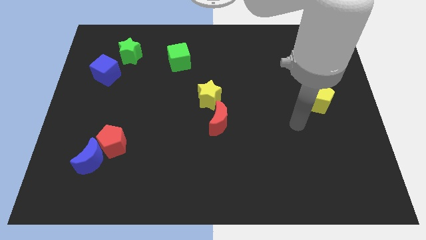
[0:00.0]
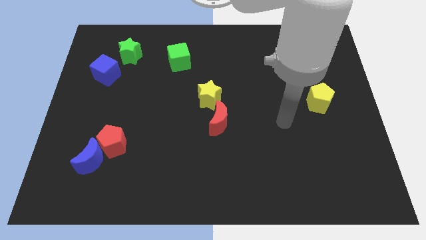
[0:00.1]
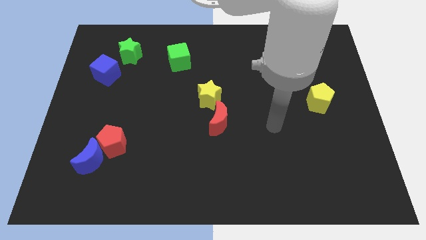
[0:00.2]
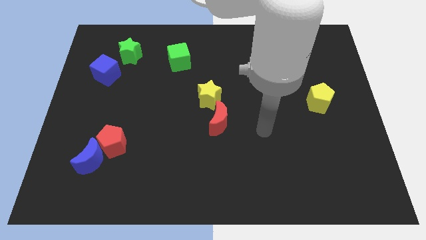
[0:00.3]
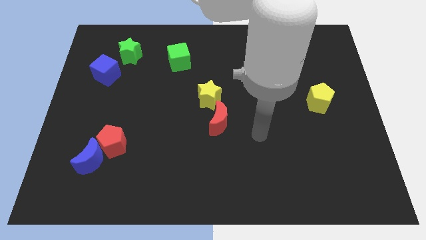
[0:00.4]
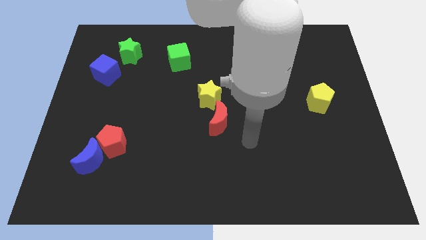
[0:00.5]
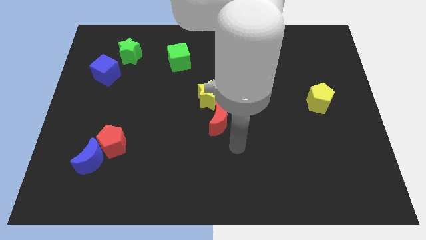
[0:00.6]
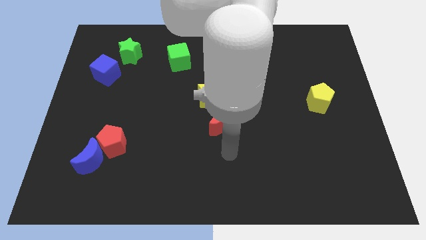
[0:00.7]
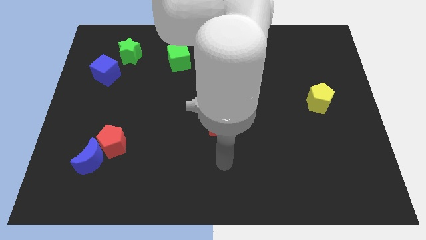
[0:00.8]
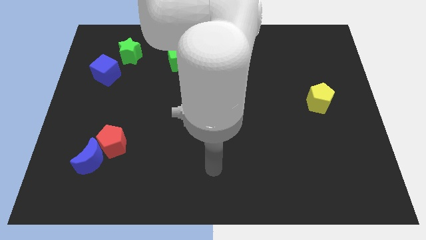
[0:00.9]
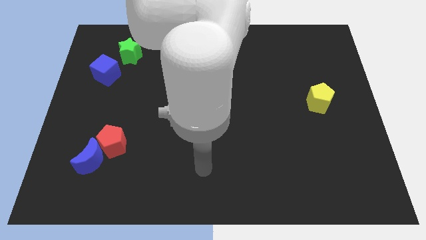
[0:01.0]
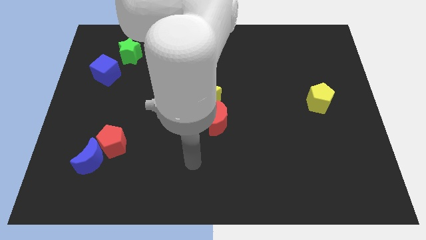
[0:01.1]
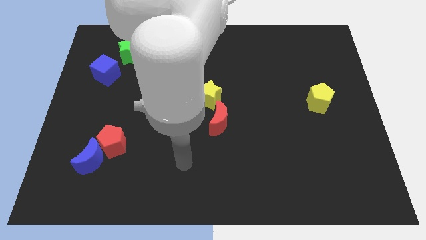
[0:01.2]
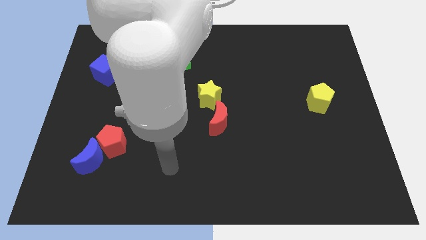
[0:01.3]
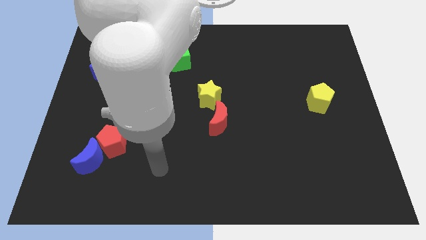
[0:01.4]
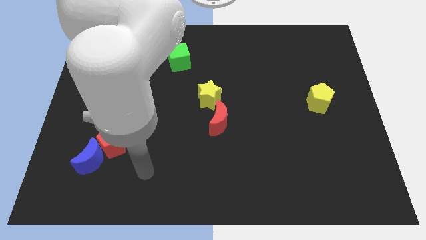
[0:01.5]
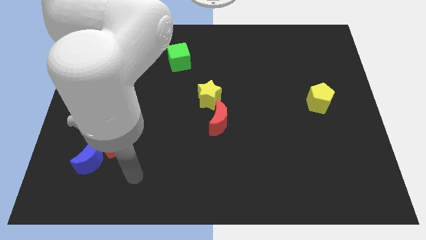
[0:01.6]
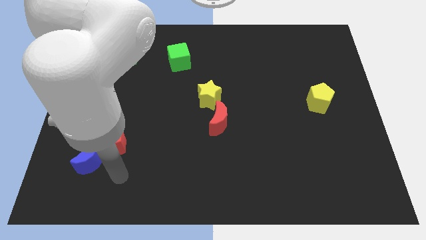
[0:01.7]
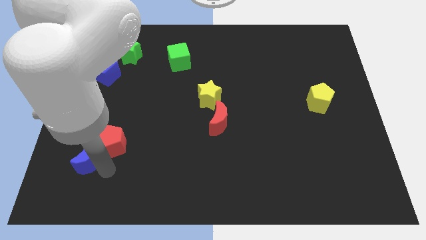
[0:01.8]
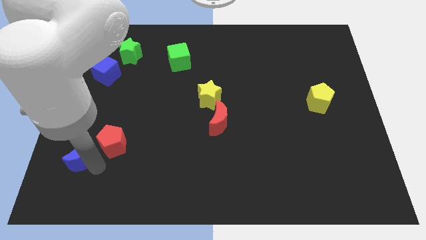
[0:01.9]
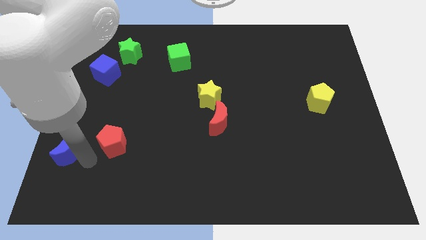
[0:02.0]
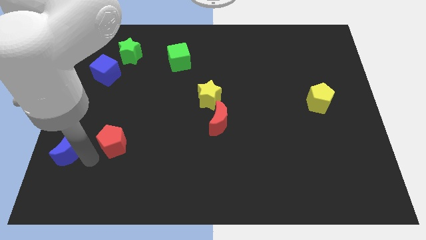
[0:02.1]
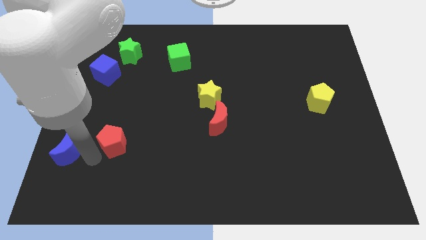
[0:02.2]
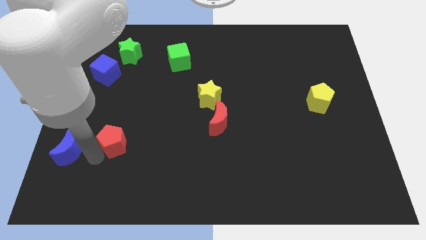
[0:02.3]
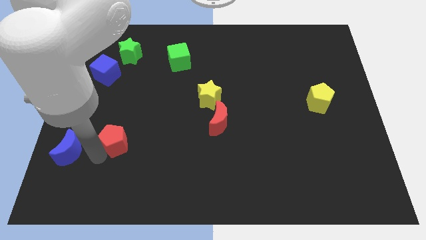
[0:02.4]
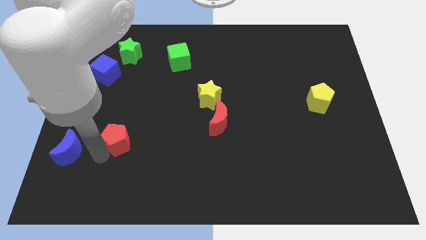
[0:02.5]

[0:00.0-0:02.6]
separate the red pentagon from the blue moon

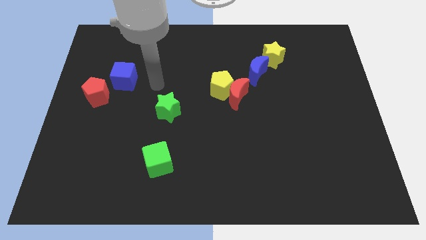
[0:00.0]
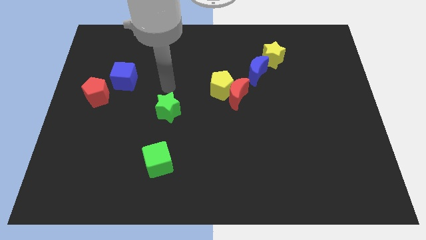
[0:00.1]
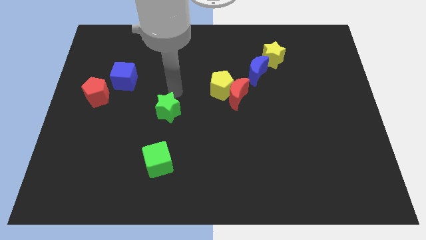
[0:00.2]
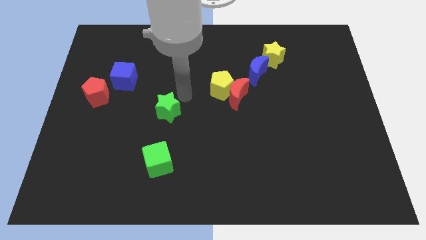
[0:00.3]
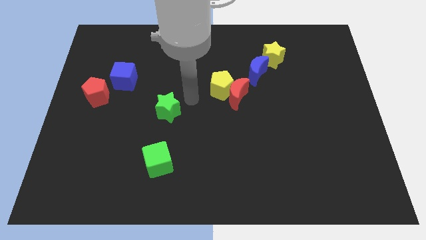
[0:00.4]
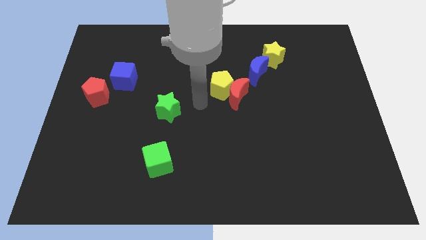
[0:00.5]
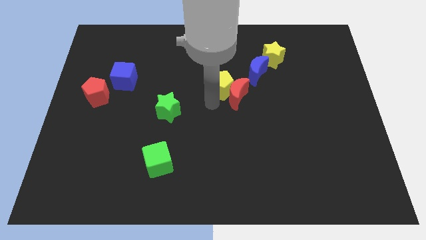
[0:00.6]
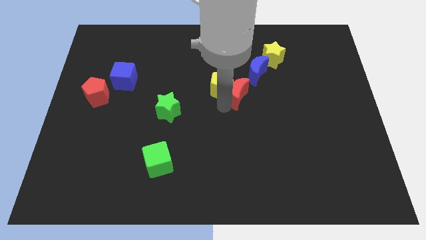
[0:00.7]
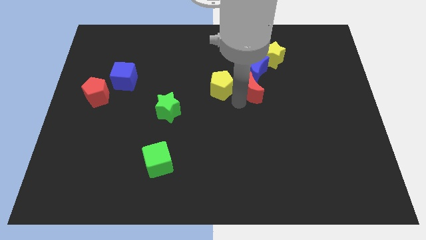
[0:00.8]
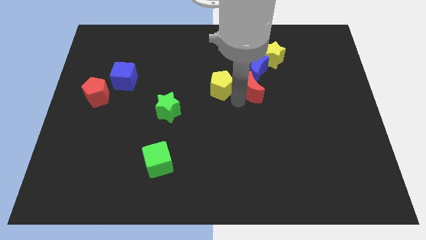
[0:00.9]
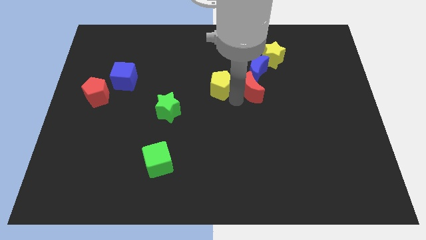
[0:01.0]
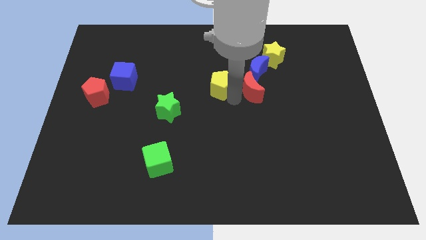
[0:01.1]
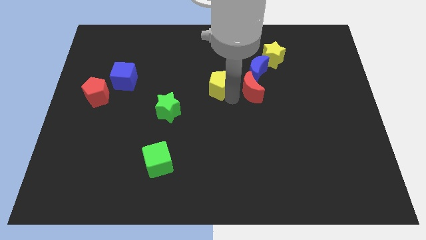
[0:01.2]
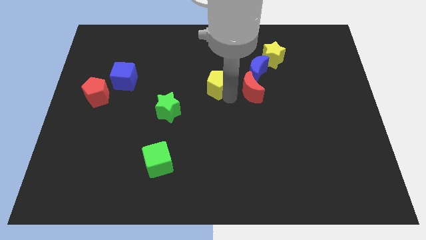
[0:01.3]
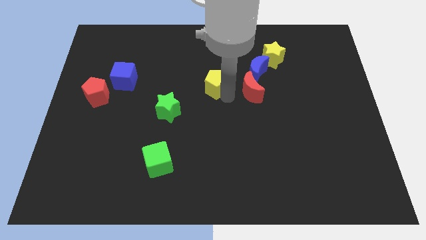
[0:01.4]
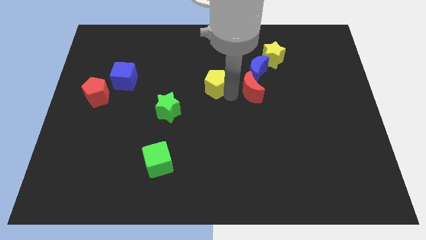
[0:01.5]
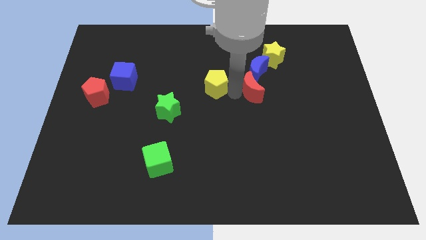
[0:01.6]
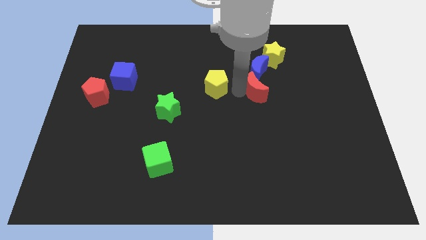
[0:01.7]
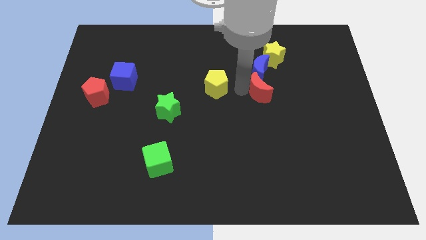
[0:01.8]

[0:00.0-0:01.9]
separate the yellow pentagon from the red moon

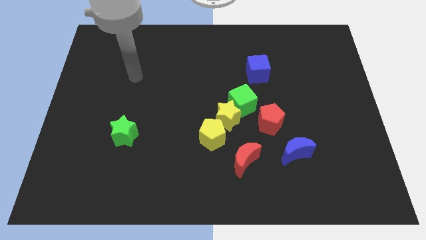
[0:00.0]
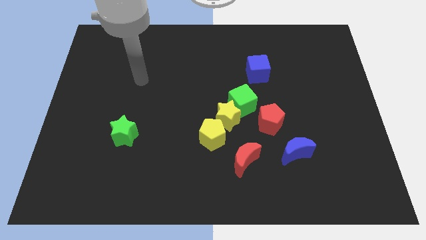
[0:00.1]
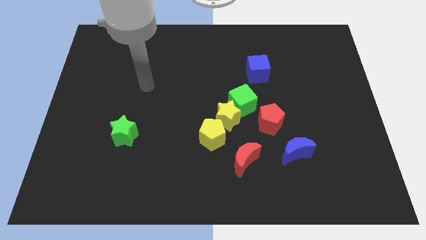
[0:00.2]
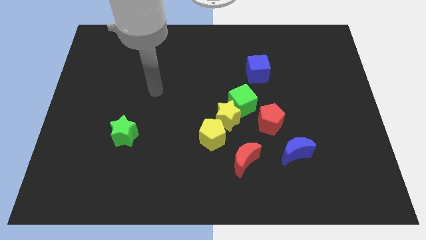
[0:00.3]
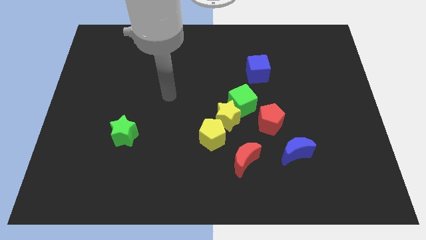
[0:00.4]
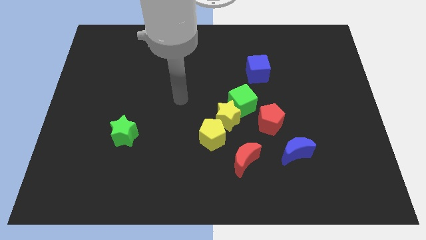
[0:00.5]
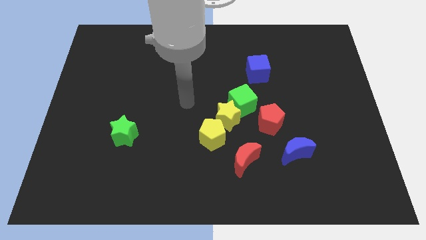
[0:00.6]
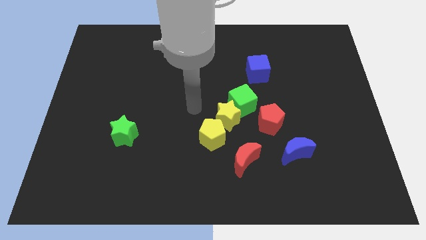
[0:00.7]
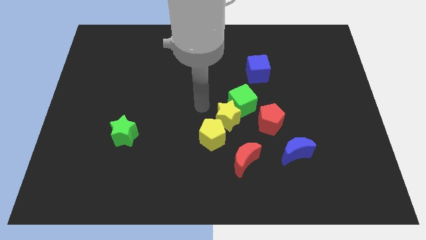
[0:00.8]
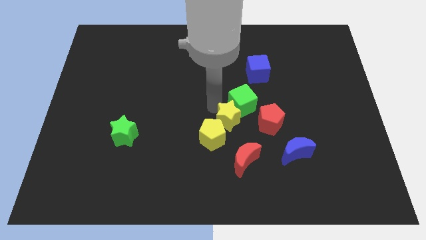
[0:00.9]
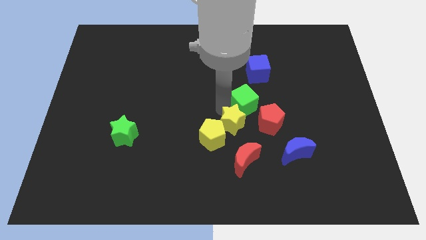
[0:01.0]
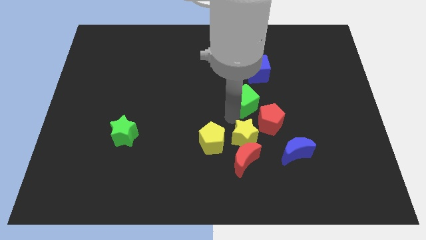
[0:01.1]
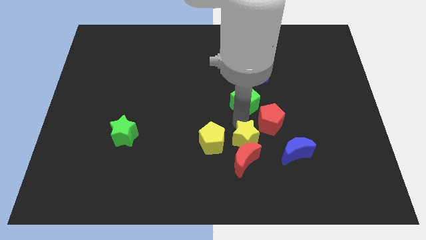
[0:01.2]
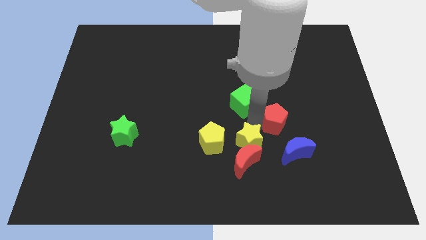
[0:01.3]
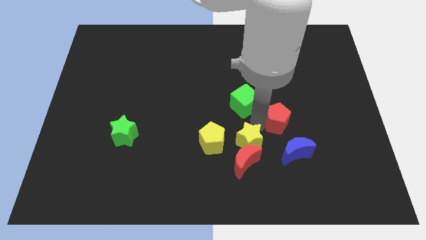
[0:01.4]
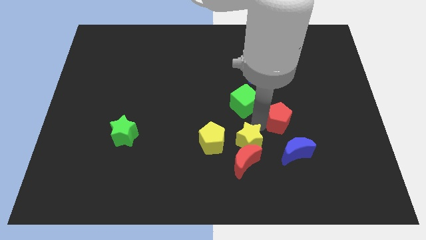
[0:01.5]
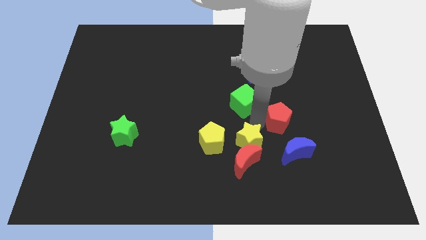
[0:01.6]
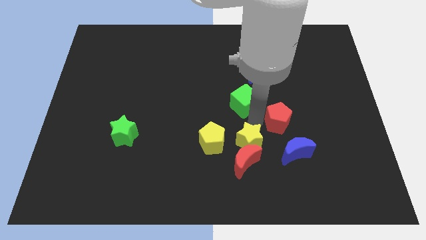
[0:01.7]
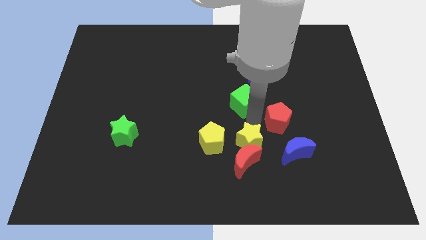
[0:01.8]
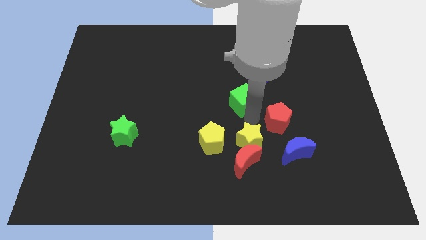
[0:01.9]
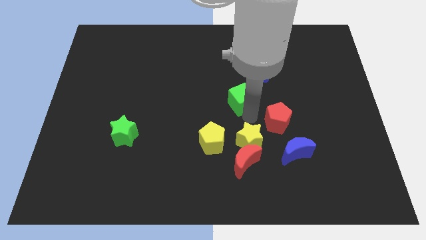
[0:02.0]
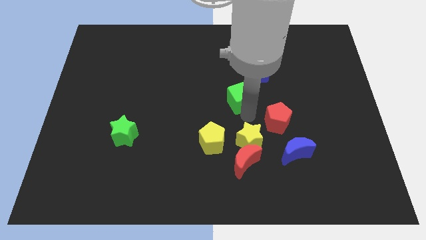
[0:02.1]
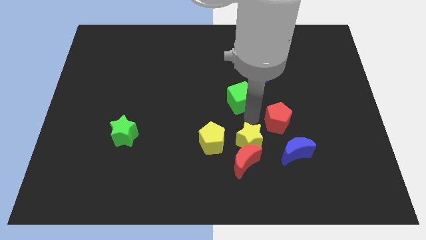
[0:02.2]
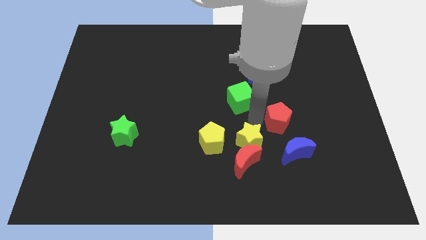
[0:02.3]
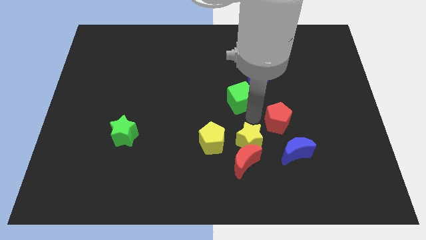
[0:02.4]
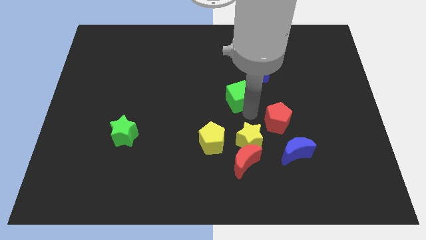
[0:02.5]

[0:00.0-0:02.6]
pull the green cube apart from the yellow star and red pentagon

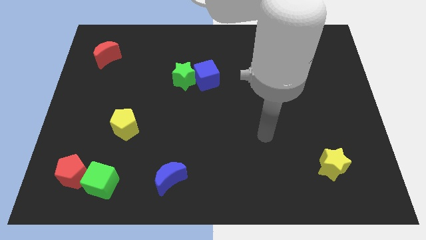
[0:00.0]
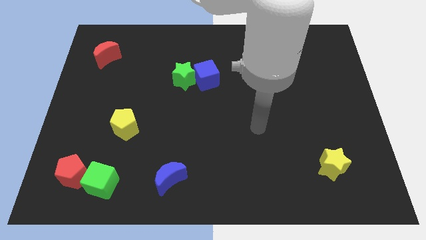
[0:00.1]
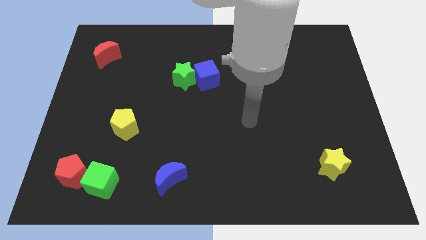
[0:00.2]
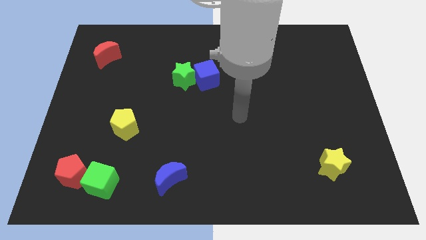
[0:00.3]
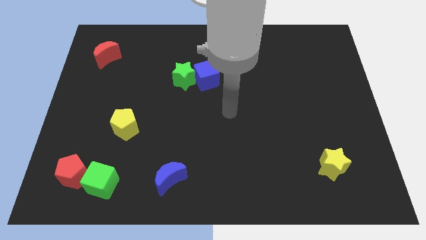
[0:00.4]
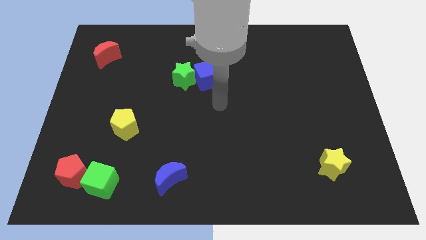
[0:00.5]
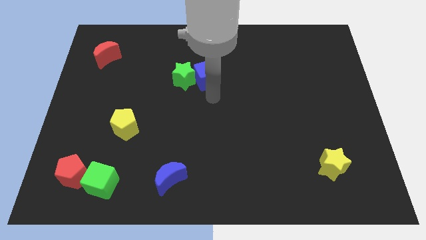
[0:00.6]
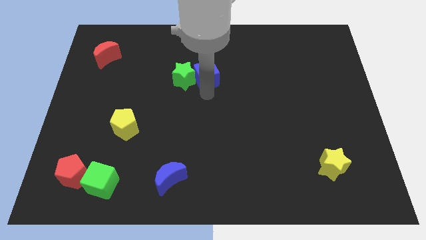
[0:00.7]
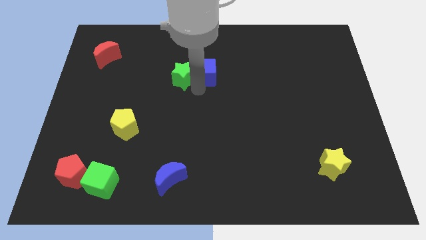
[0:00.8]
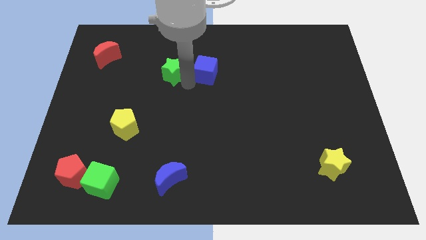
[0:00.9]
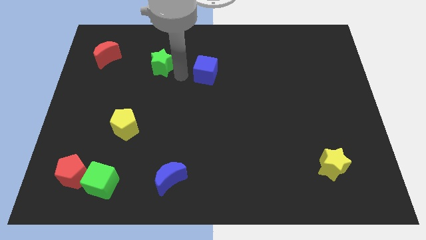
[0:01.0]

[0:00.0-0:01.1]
pull the blue cube apart from the green star

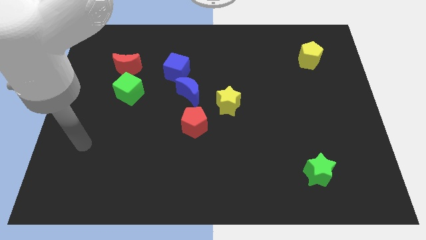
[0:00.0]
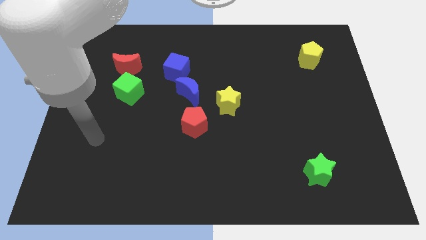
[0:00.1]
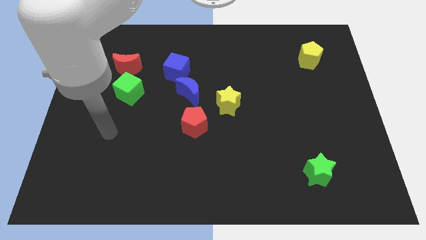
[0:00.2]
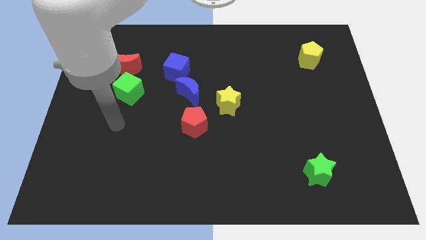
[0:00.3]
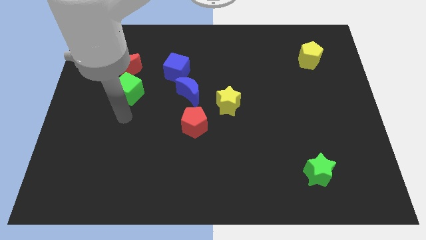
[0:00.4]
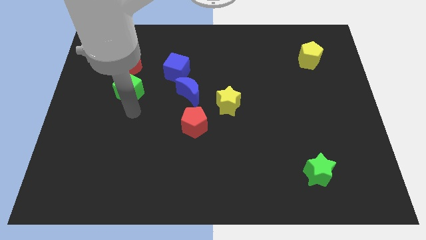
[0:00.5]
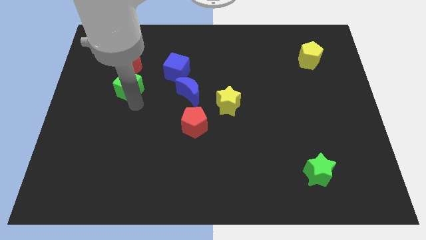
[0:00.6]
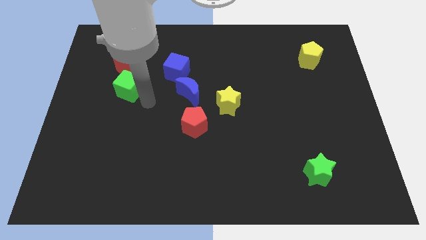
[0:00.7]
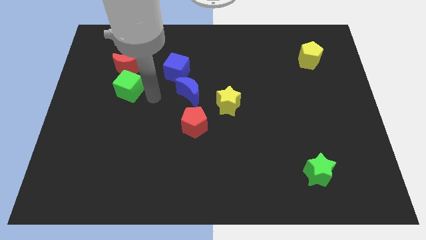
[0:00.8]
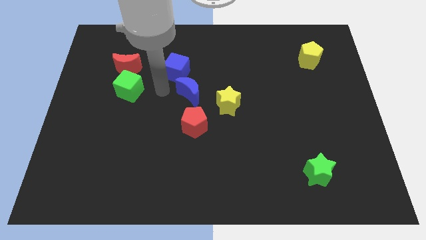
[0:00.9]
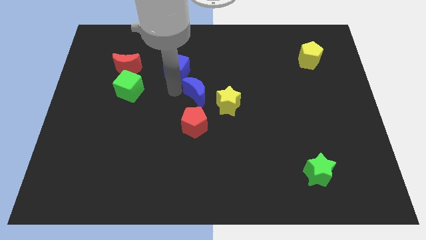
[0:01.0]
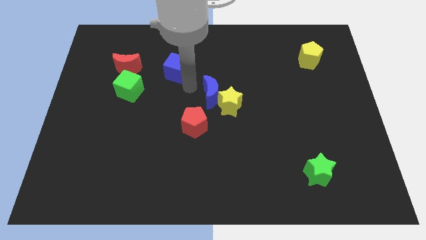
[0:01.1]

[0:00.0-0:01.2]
separate the blue cube from the blue moon
